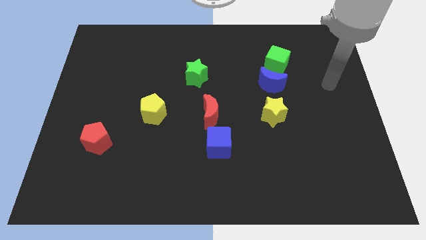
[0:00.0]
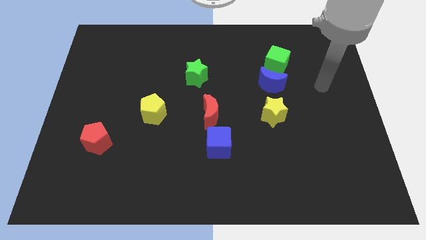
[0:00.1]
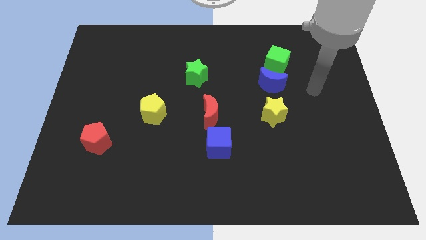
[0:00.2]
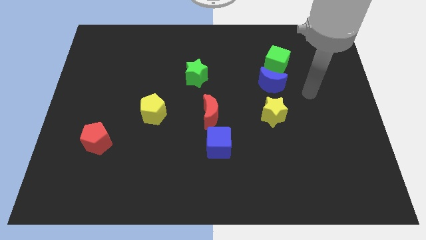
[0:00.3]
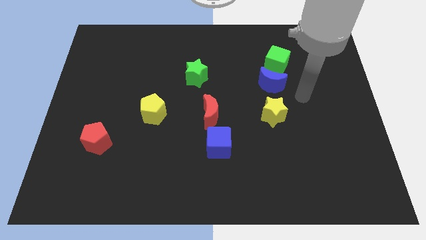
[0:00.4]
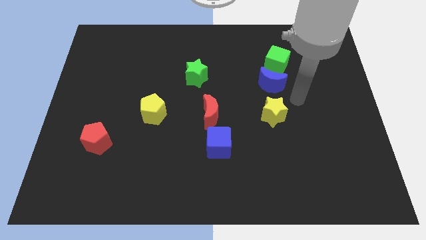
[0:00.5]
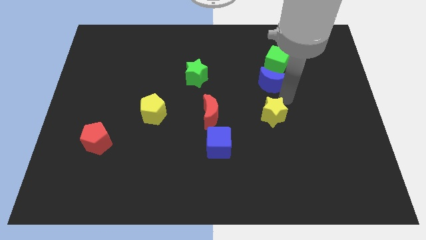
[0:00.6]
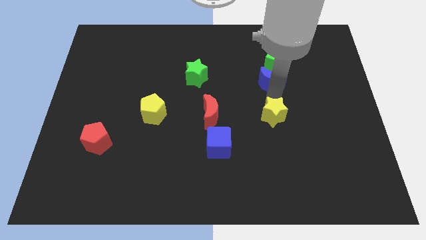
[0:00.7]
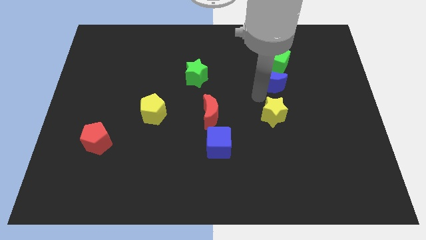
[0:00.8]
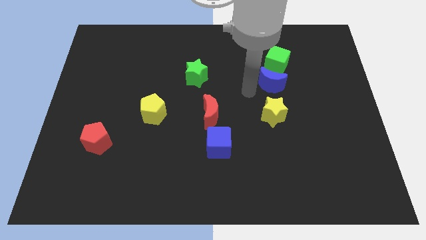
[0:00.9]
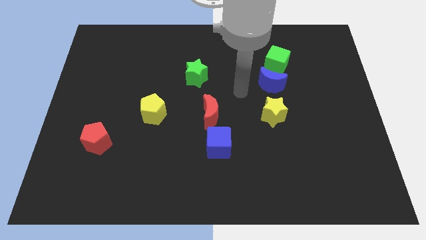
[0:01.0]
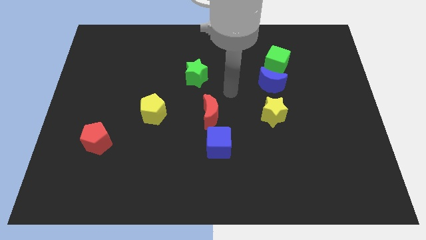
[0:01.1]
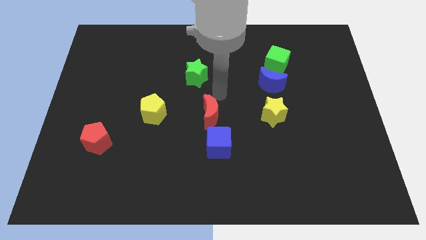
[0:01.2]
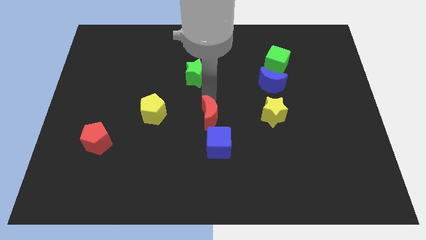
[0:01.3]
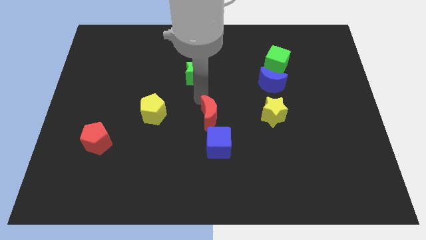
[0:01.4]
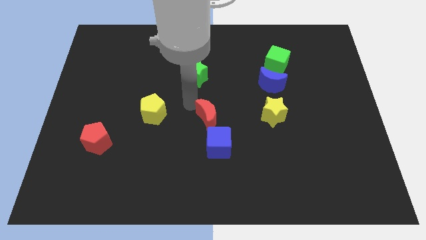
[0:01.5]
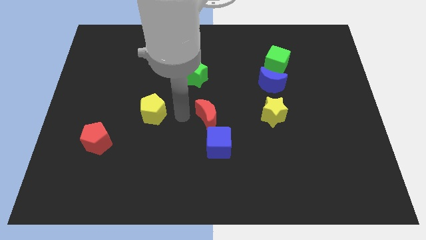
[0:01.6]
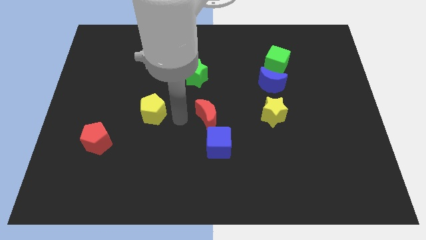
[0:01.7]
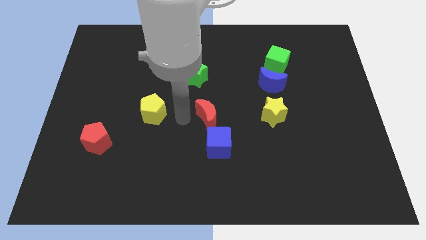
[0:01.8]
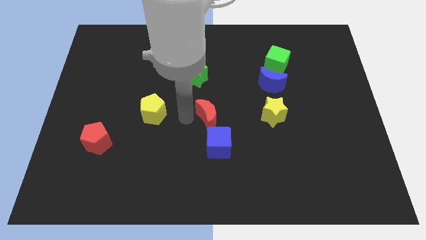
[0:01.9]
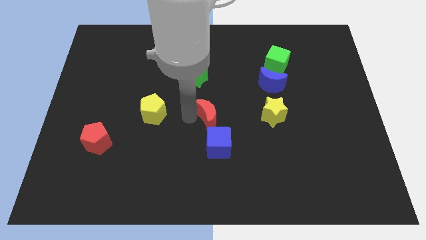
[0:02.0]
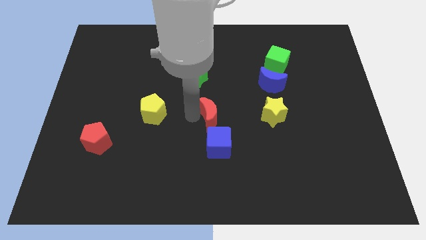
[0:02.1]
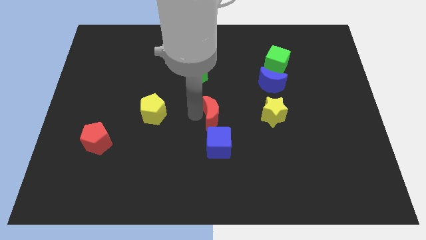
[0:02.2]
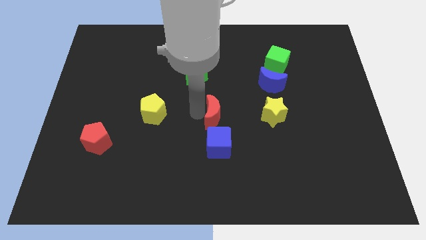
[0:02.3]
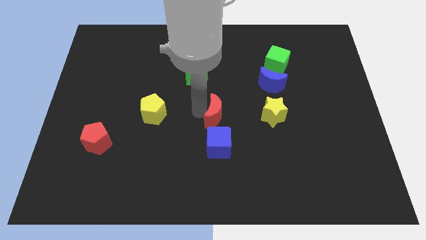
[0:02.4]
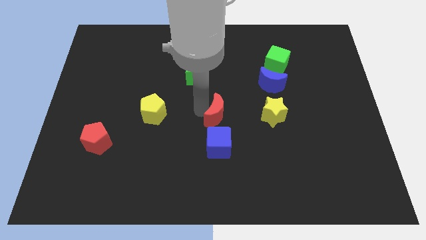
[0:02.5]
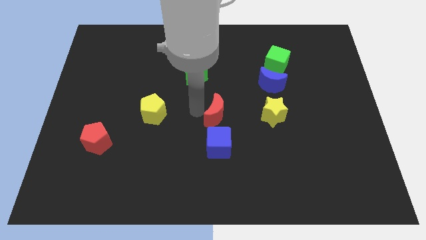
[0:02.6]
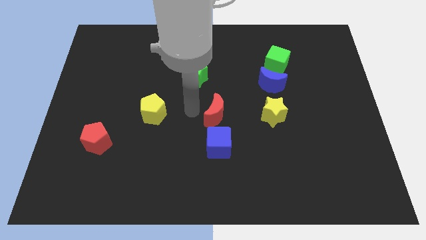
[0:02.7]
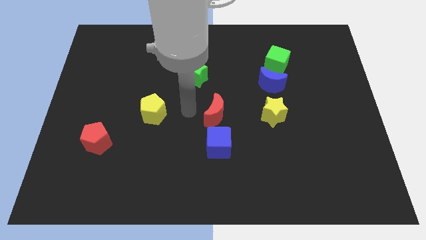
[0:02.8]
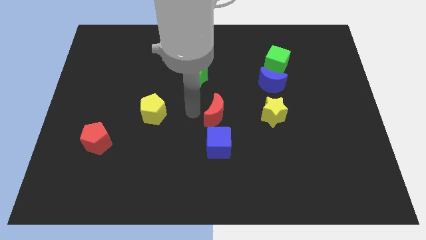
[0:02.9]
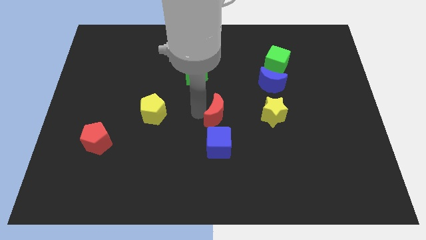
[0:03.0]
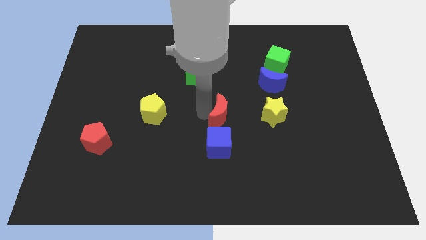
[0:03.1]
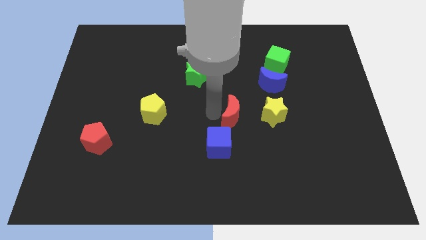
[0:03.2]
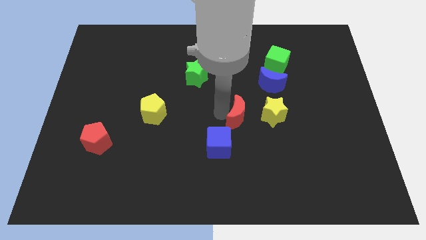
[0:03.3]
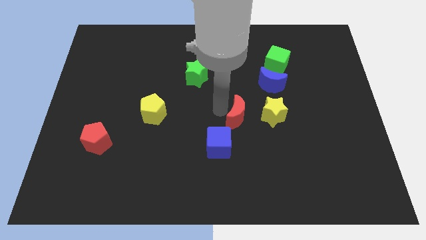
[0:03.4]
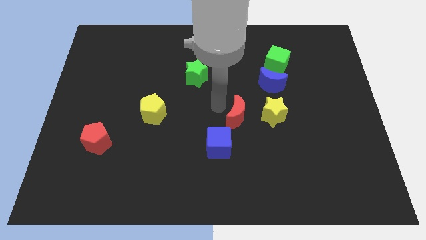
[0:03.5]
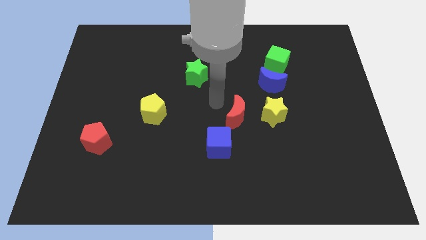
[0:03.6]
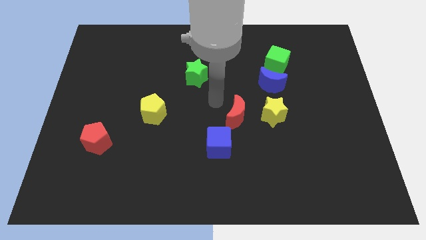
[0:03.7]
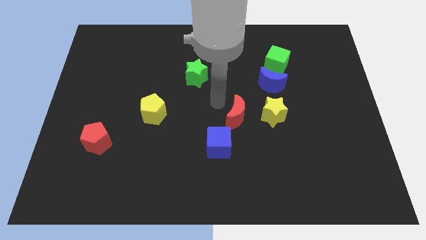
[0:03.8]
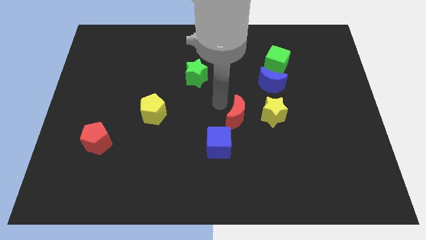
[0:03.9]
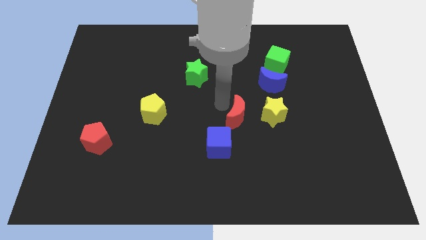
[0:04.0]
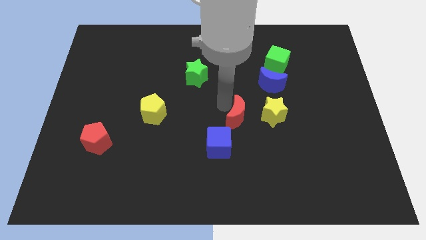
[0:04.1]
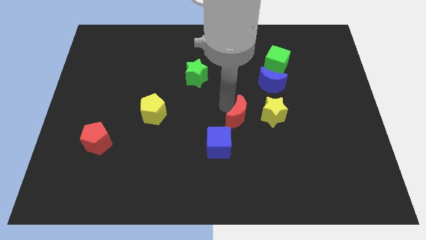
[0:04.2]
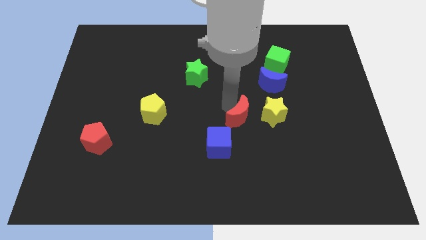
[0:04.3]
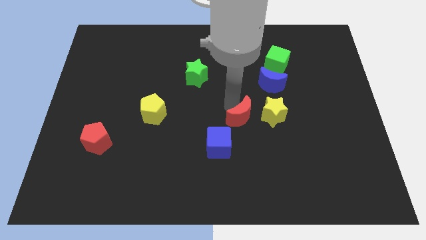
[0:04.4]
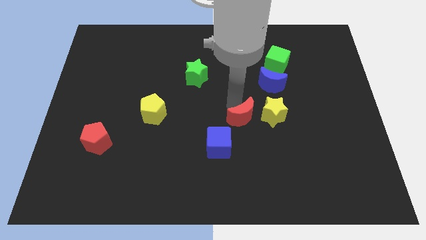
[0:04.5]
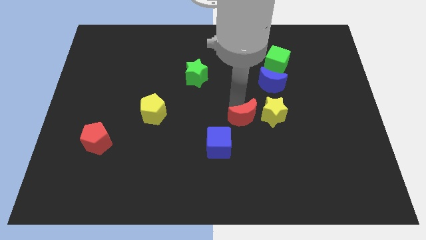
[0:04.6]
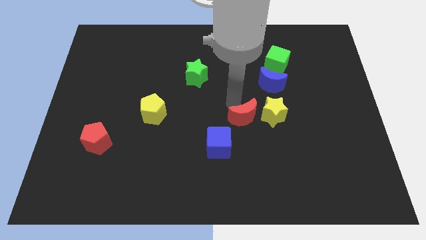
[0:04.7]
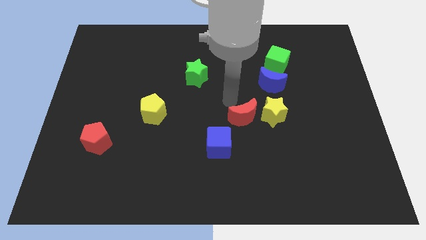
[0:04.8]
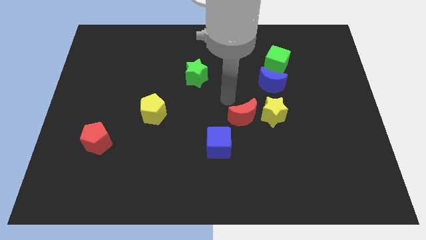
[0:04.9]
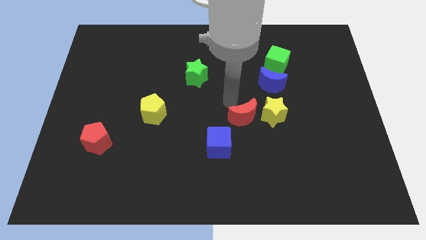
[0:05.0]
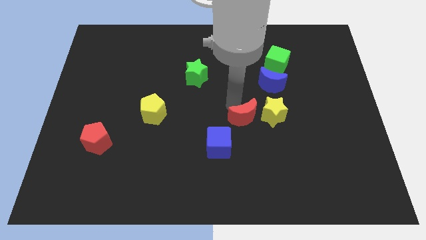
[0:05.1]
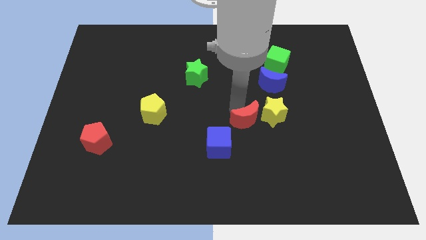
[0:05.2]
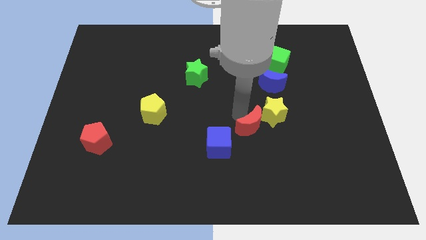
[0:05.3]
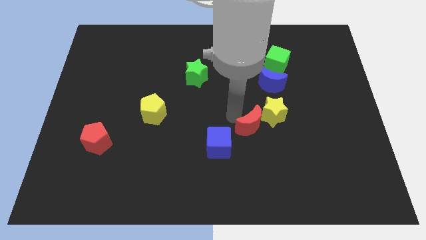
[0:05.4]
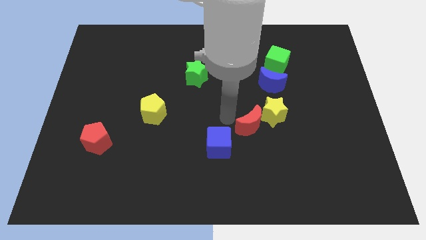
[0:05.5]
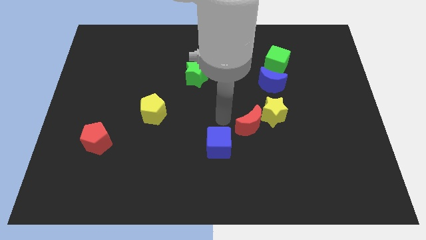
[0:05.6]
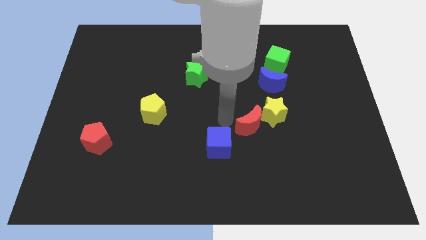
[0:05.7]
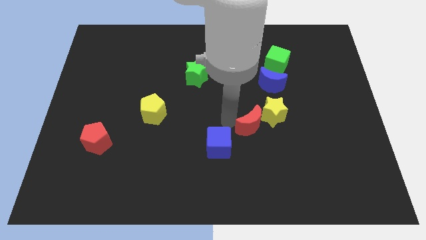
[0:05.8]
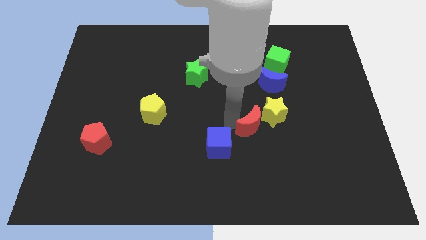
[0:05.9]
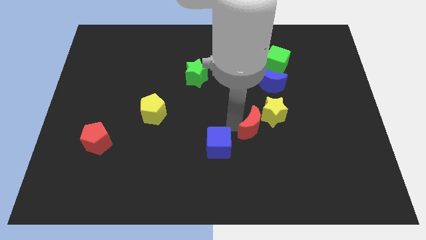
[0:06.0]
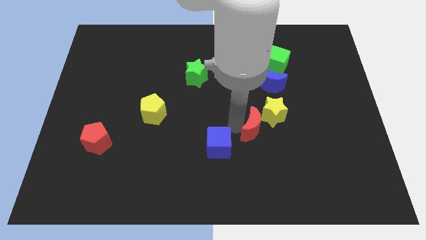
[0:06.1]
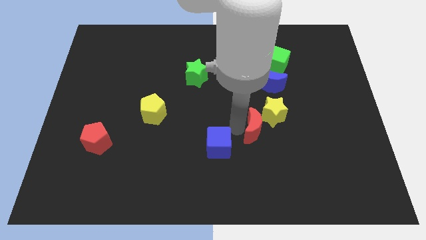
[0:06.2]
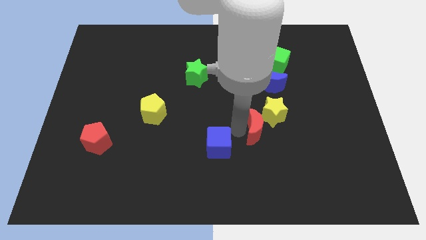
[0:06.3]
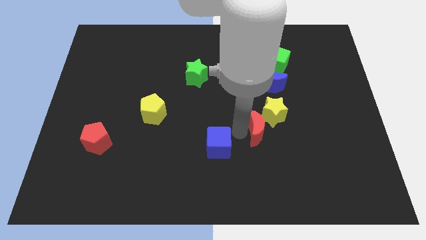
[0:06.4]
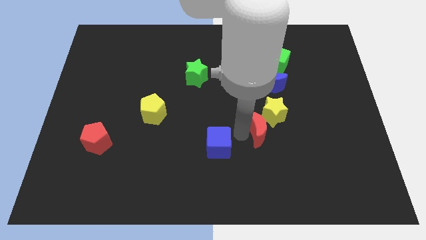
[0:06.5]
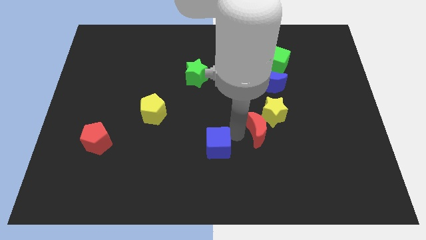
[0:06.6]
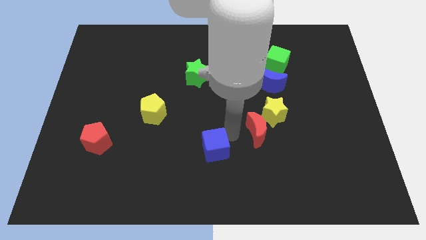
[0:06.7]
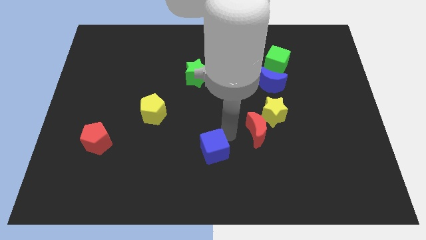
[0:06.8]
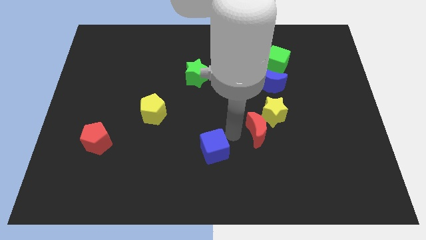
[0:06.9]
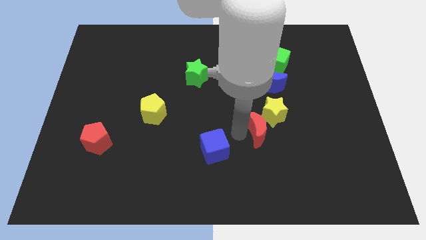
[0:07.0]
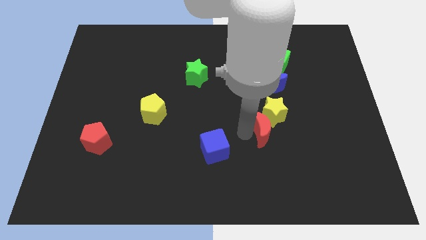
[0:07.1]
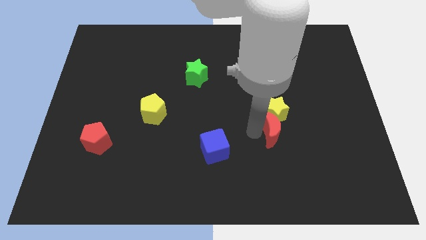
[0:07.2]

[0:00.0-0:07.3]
move the red moon to the bottom right of the yellow star

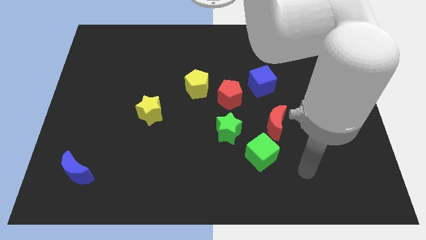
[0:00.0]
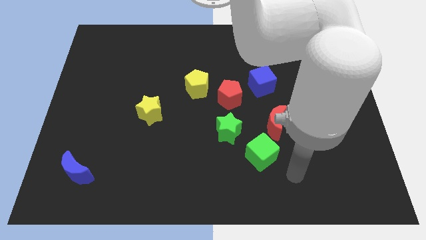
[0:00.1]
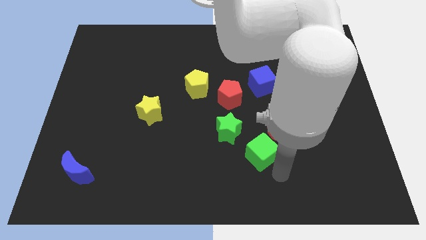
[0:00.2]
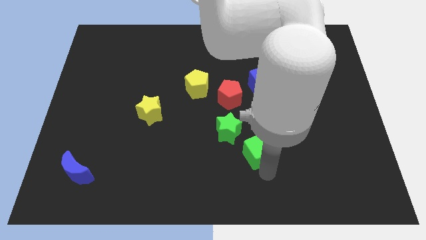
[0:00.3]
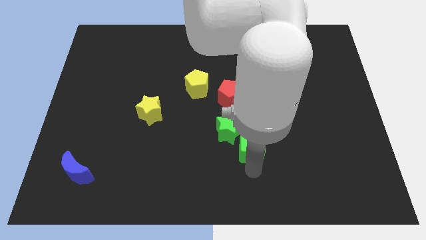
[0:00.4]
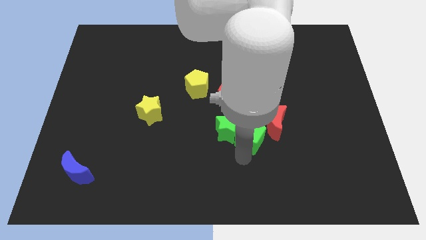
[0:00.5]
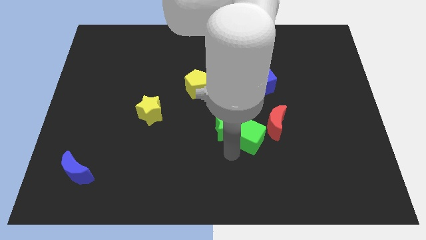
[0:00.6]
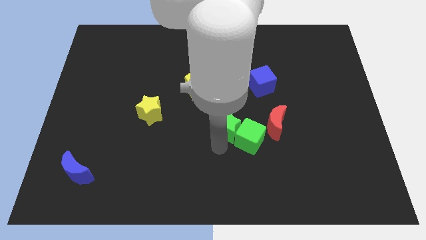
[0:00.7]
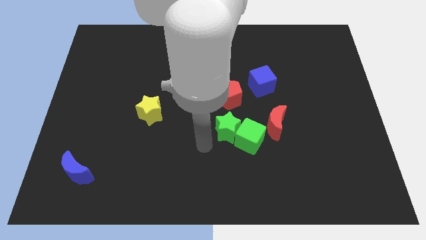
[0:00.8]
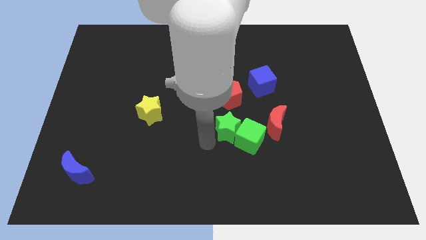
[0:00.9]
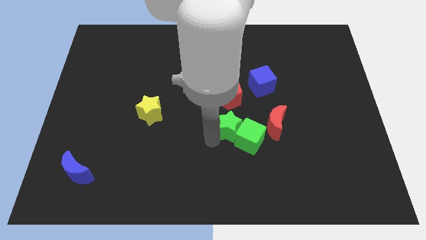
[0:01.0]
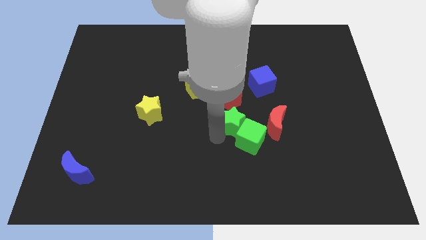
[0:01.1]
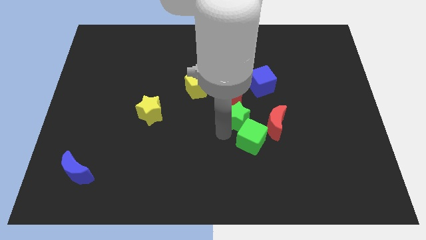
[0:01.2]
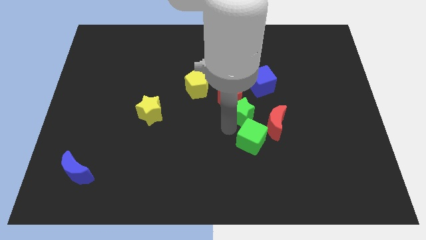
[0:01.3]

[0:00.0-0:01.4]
move the green star diagonally up and to the left of the red moon
